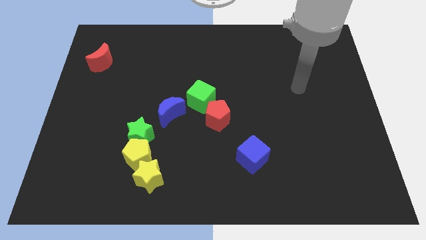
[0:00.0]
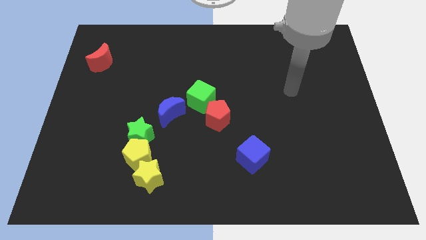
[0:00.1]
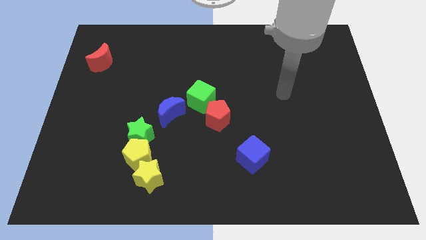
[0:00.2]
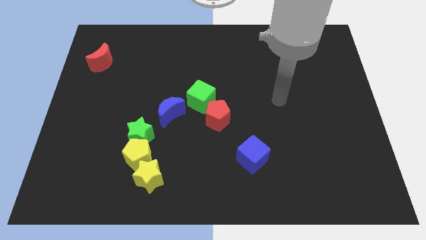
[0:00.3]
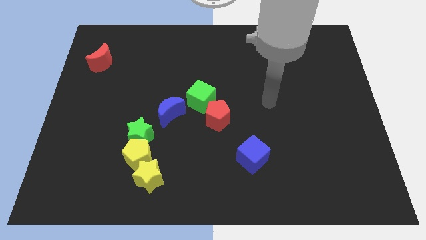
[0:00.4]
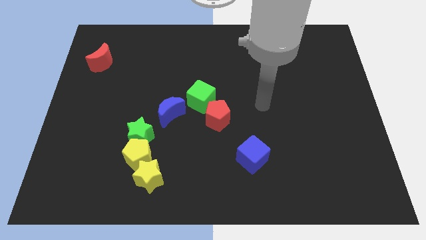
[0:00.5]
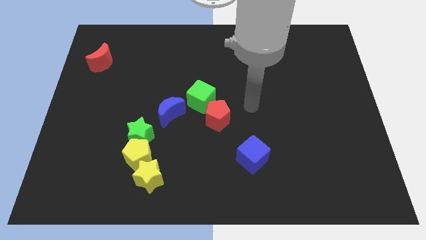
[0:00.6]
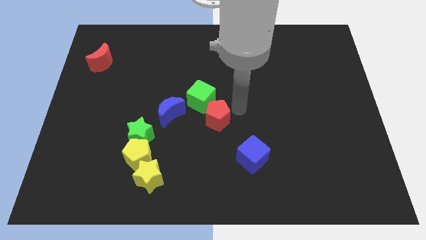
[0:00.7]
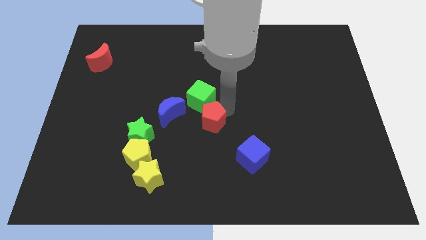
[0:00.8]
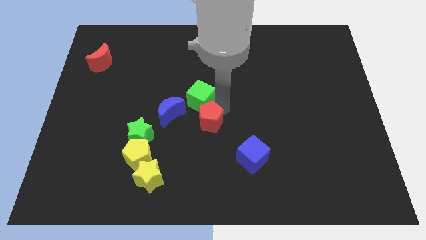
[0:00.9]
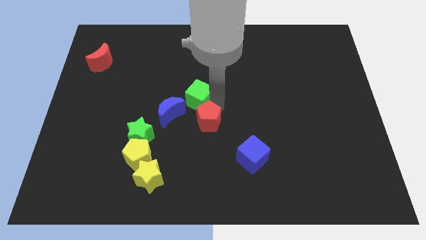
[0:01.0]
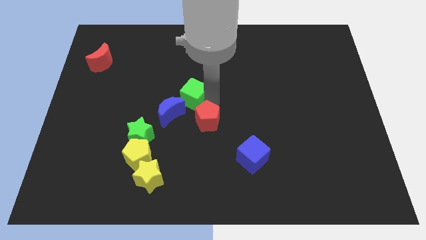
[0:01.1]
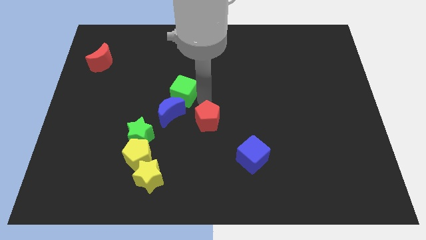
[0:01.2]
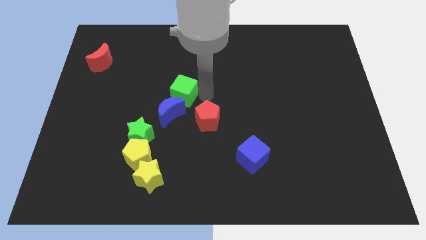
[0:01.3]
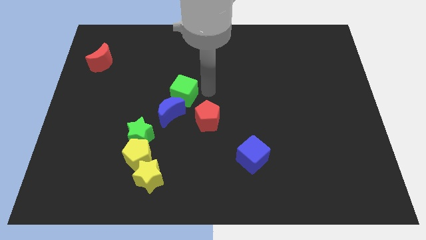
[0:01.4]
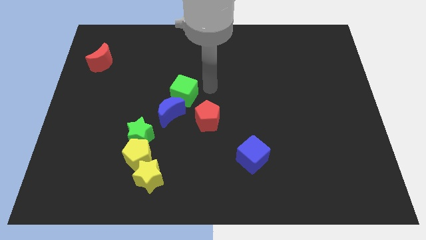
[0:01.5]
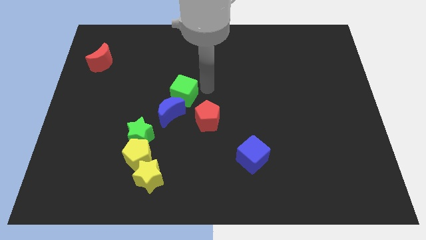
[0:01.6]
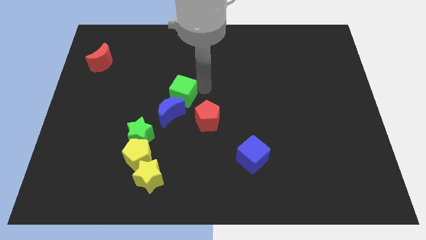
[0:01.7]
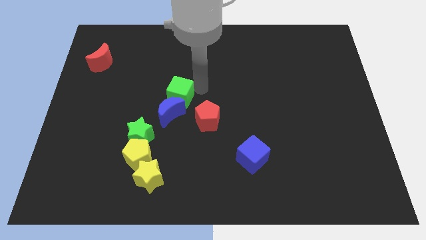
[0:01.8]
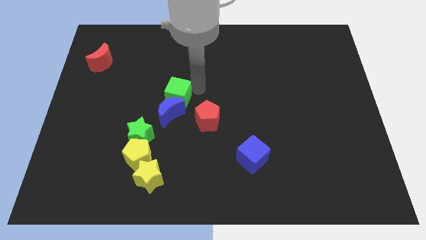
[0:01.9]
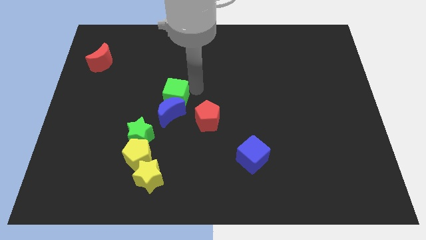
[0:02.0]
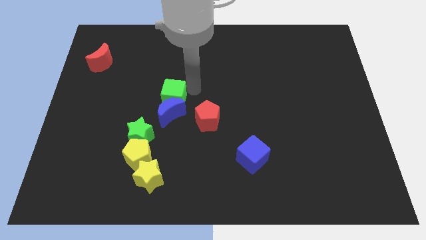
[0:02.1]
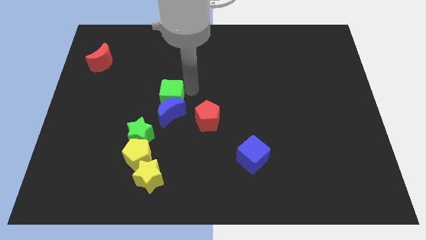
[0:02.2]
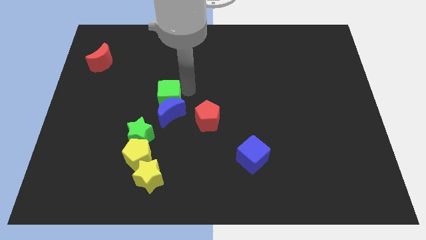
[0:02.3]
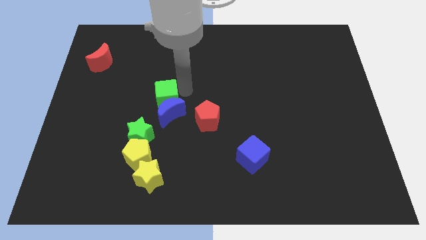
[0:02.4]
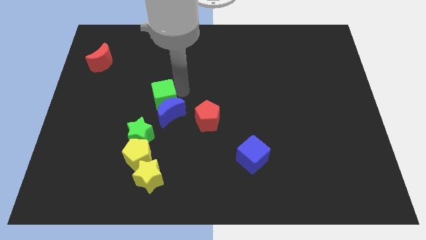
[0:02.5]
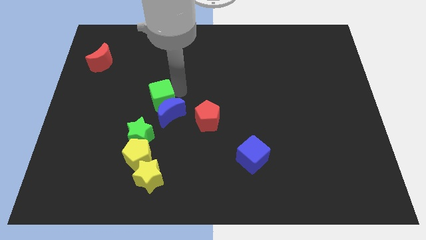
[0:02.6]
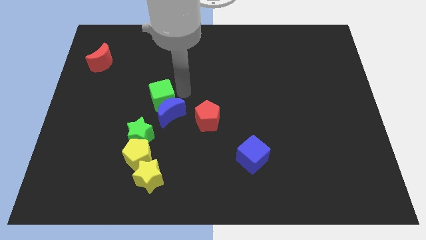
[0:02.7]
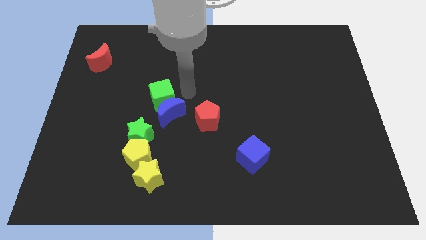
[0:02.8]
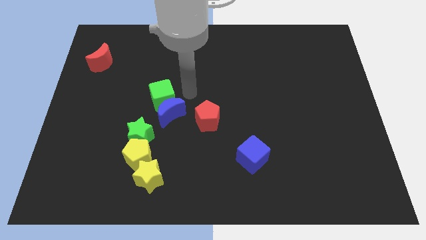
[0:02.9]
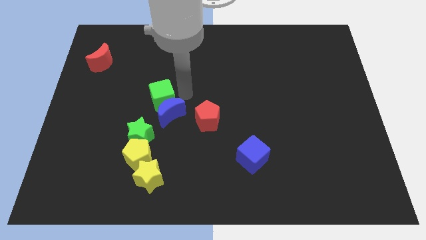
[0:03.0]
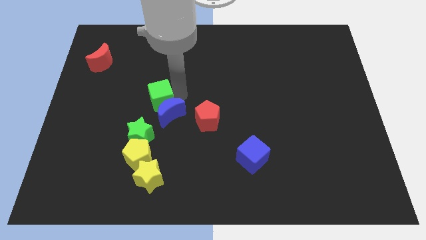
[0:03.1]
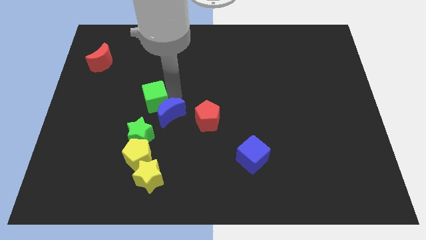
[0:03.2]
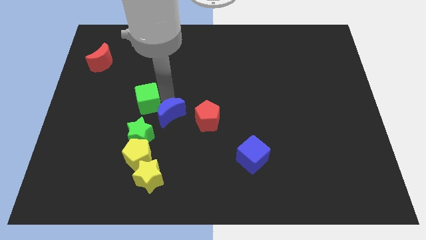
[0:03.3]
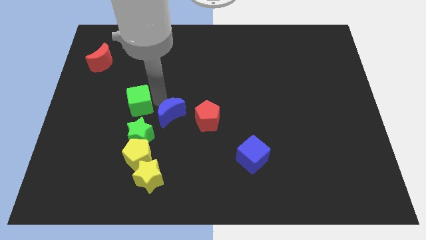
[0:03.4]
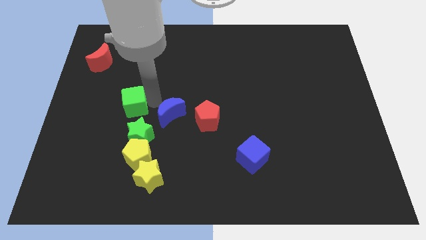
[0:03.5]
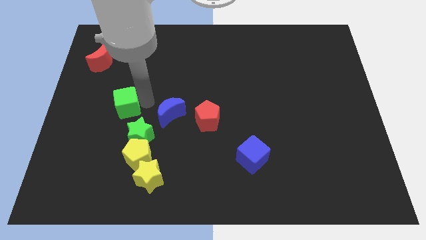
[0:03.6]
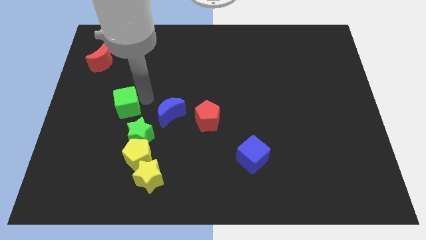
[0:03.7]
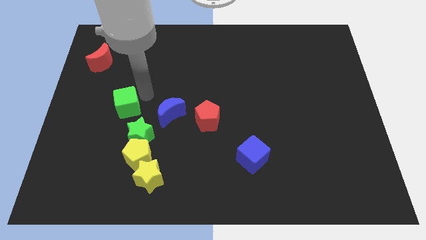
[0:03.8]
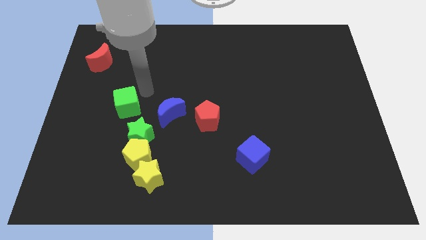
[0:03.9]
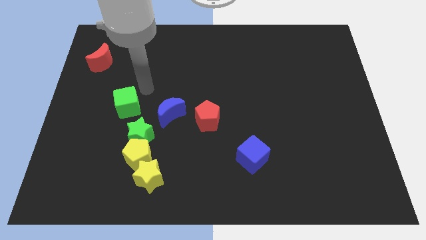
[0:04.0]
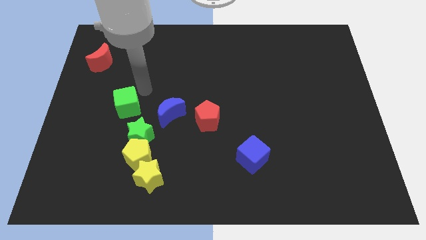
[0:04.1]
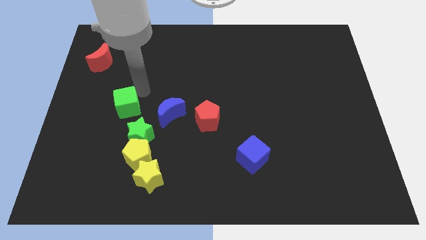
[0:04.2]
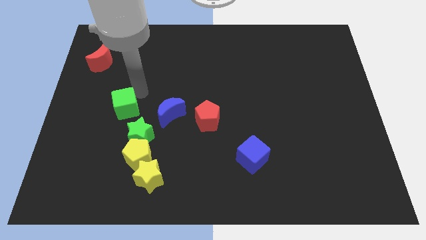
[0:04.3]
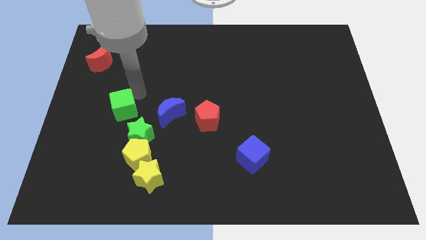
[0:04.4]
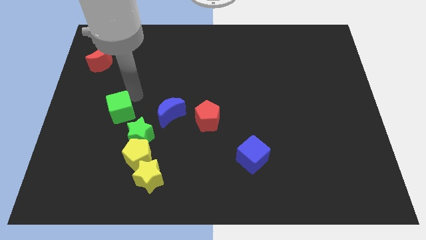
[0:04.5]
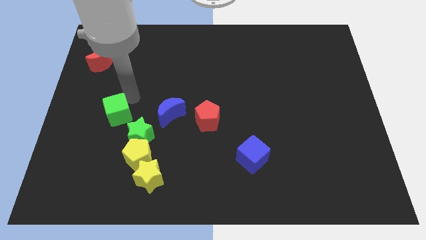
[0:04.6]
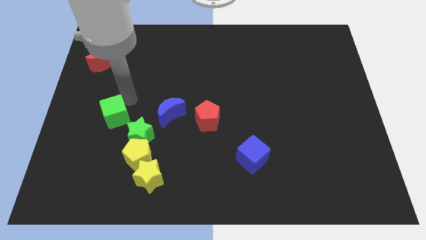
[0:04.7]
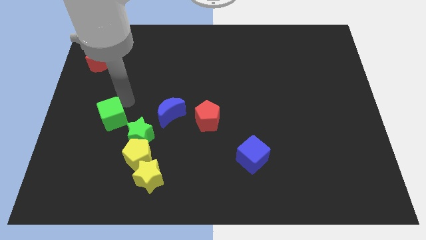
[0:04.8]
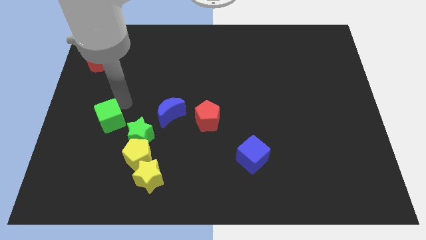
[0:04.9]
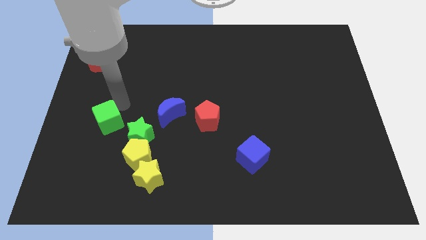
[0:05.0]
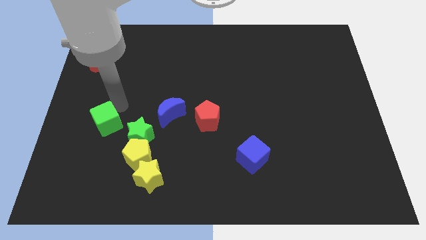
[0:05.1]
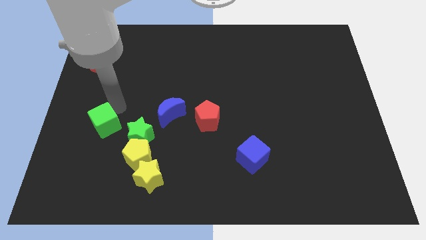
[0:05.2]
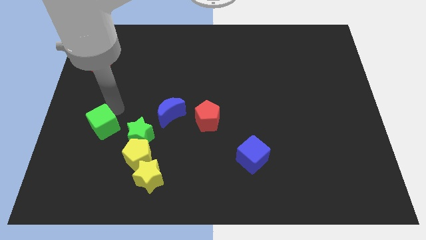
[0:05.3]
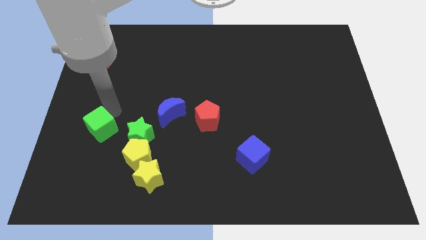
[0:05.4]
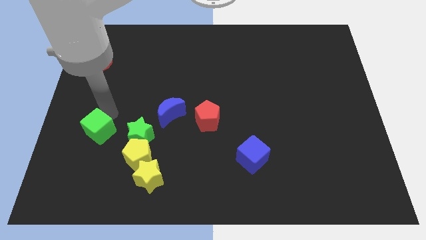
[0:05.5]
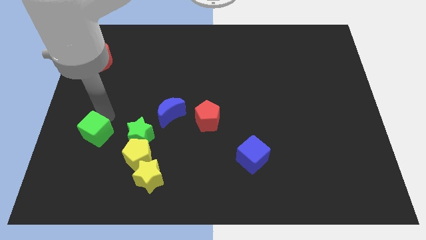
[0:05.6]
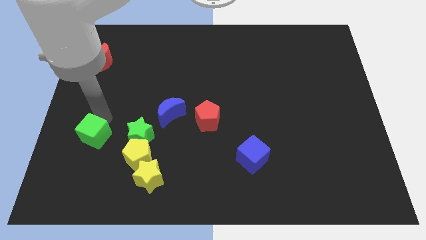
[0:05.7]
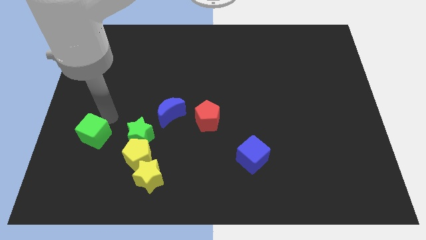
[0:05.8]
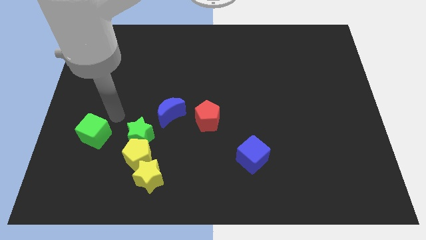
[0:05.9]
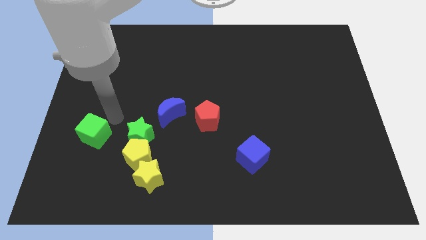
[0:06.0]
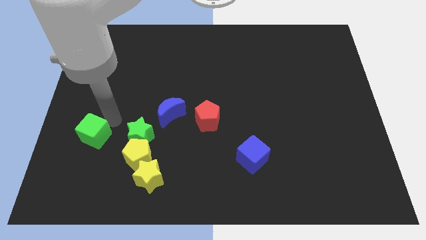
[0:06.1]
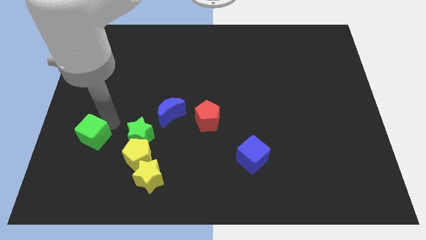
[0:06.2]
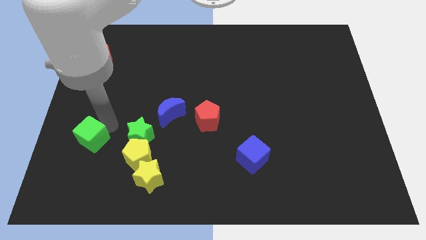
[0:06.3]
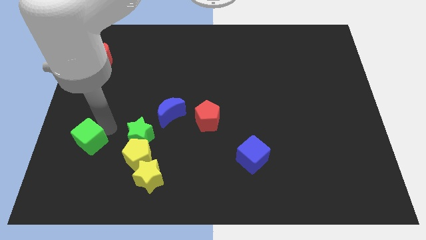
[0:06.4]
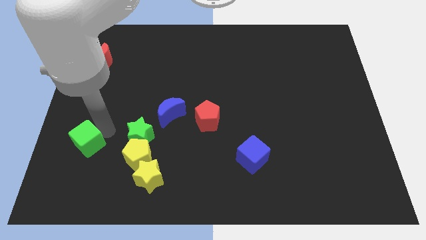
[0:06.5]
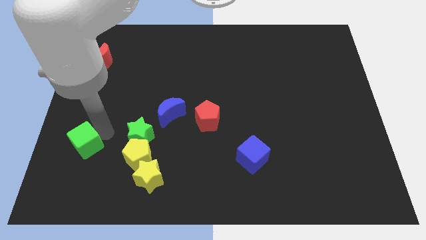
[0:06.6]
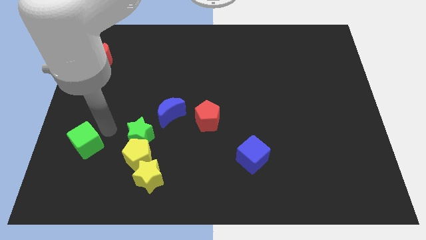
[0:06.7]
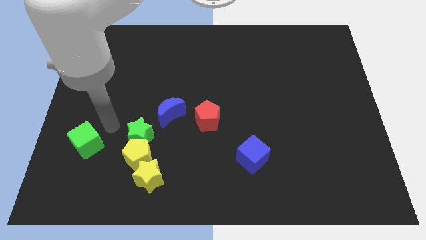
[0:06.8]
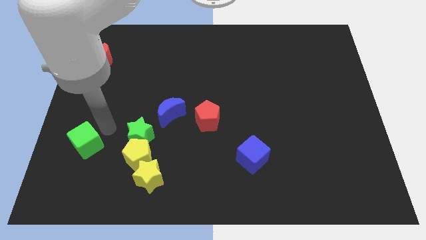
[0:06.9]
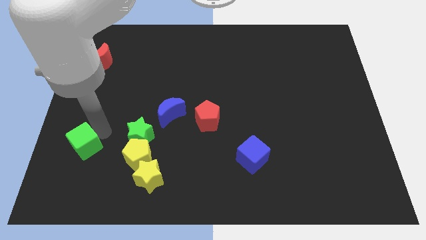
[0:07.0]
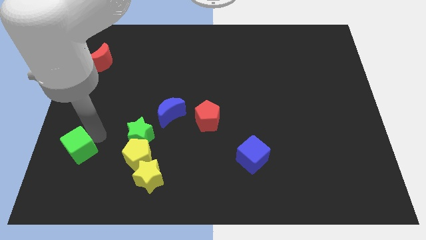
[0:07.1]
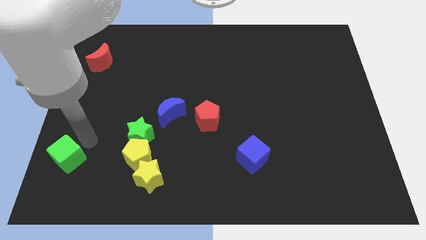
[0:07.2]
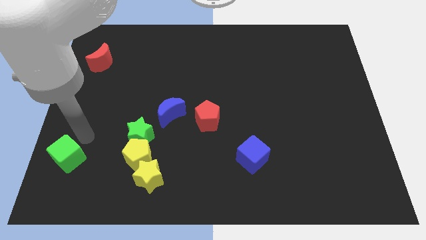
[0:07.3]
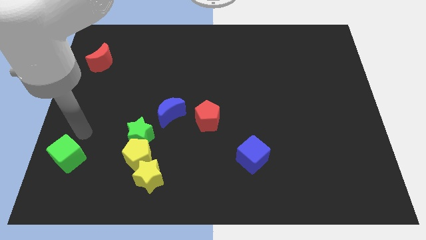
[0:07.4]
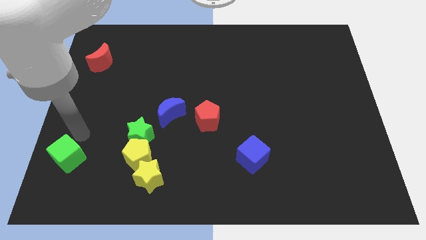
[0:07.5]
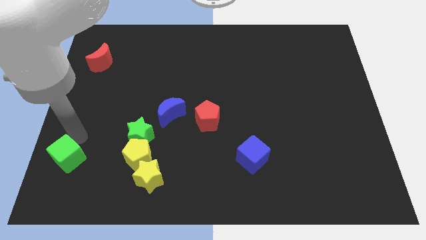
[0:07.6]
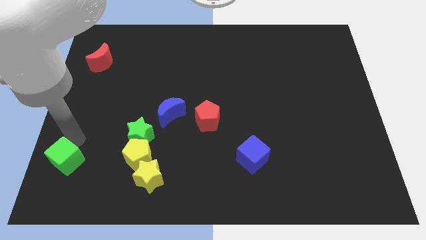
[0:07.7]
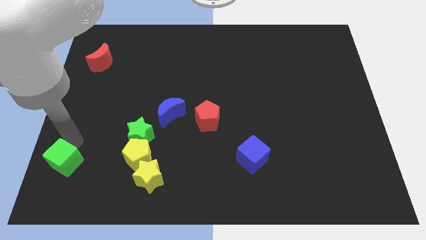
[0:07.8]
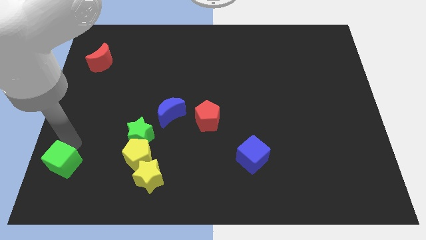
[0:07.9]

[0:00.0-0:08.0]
slide the green cube to the bottom left corner
